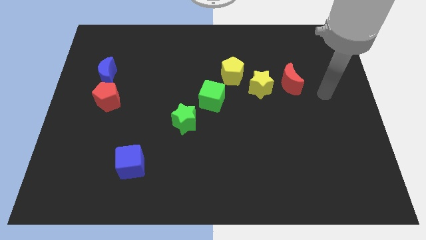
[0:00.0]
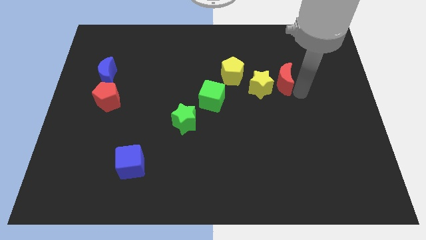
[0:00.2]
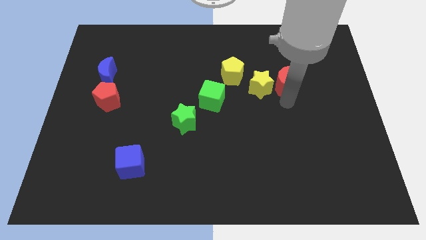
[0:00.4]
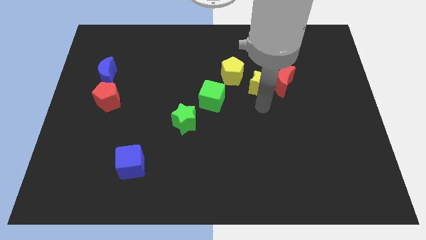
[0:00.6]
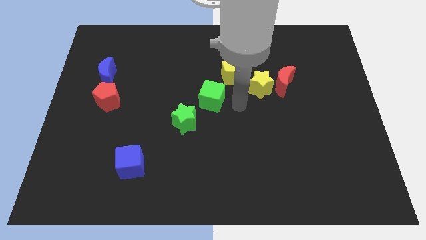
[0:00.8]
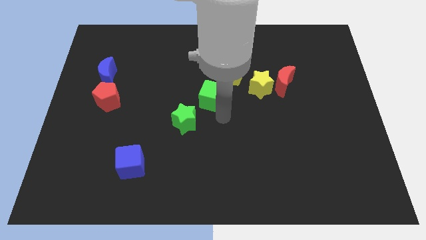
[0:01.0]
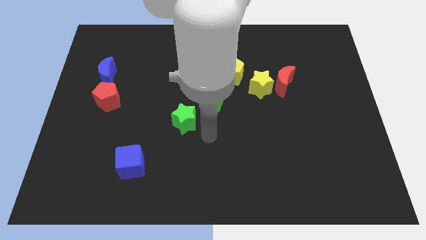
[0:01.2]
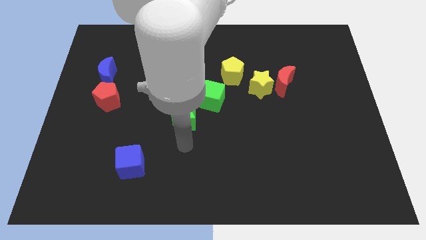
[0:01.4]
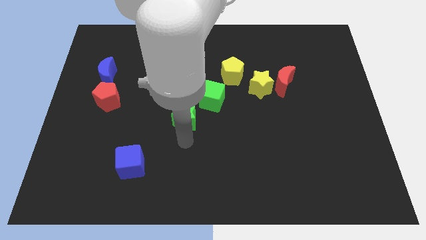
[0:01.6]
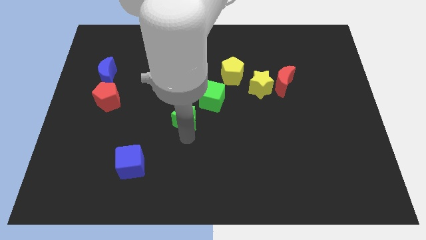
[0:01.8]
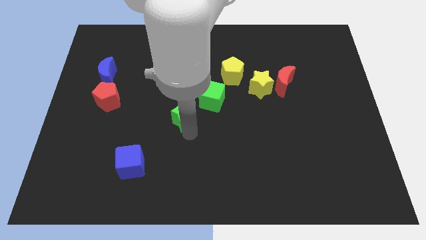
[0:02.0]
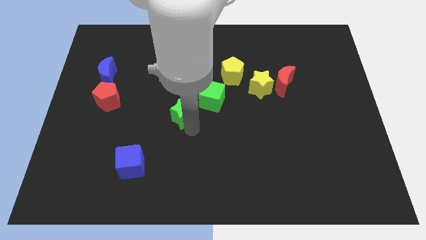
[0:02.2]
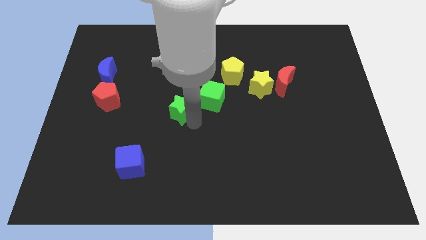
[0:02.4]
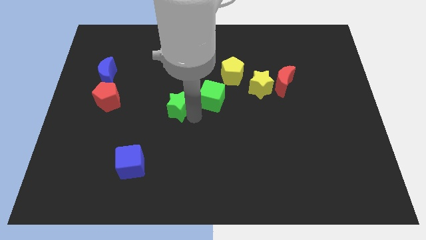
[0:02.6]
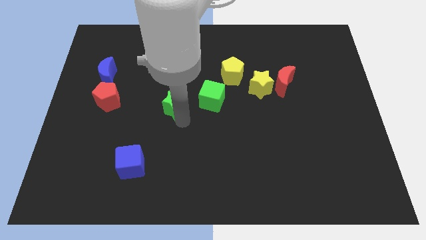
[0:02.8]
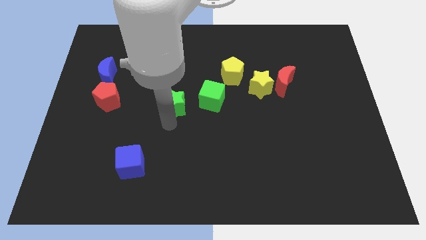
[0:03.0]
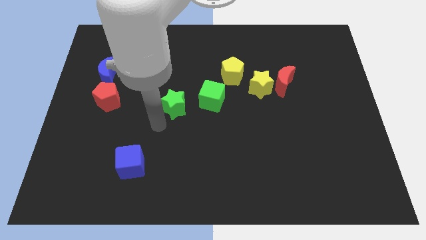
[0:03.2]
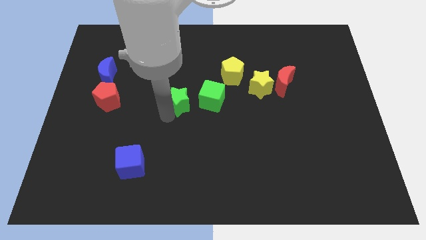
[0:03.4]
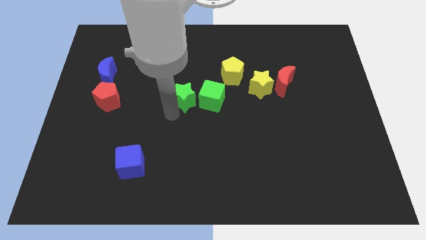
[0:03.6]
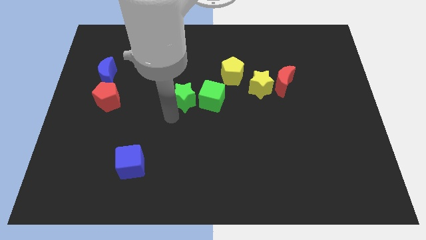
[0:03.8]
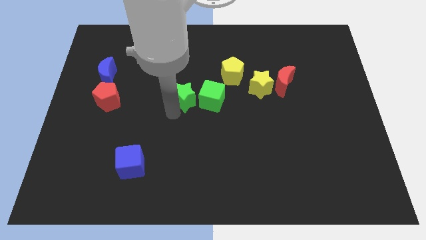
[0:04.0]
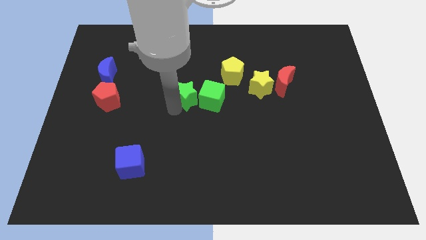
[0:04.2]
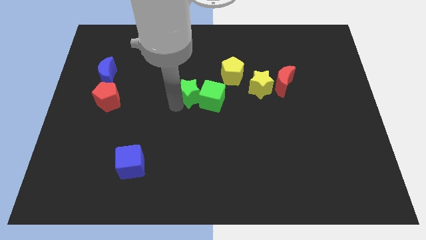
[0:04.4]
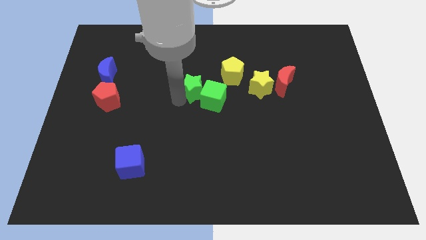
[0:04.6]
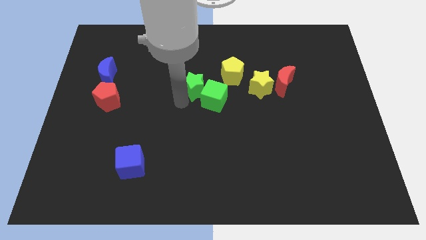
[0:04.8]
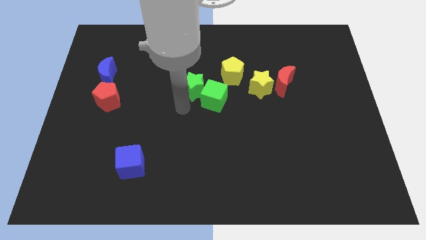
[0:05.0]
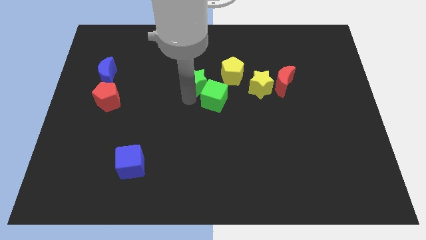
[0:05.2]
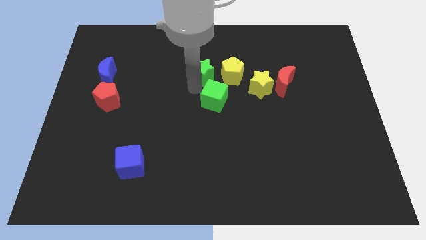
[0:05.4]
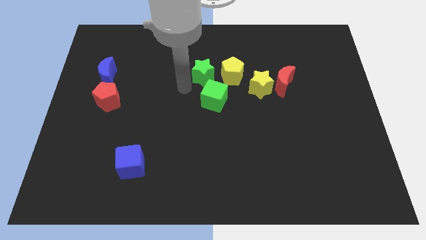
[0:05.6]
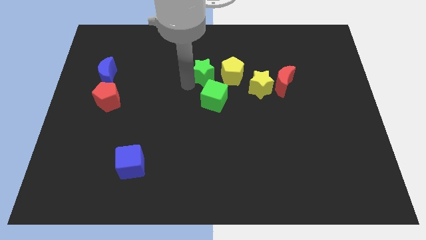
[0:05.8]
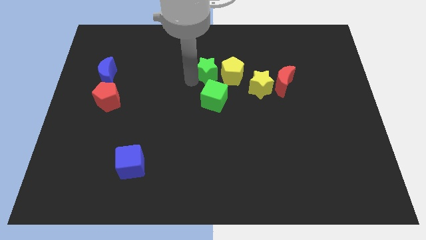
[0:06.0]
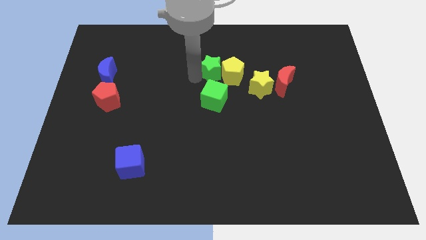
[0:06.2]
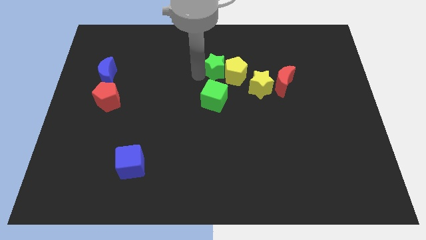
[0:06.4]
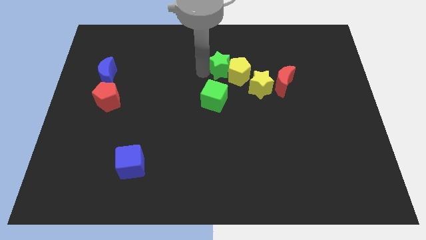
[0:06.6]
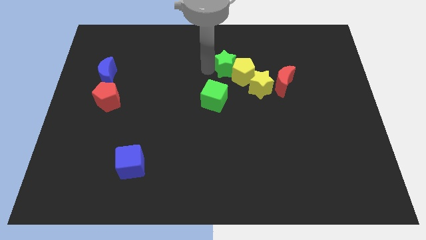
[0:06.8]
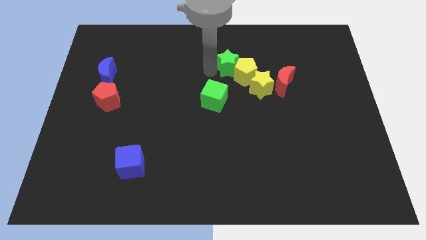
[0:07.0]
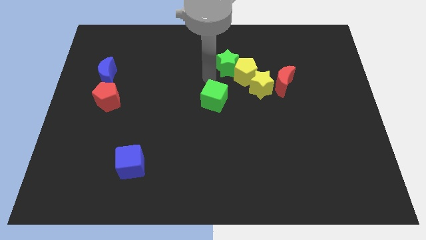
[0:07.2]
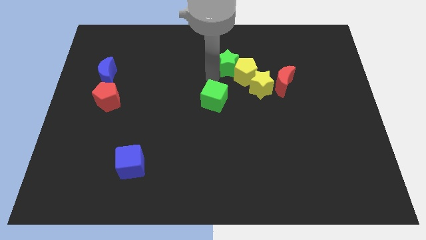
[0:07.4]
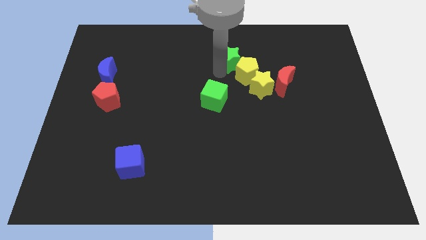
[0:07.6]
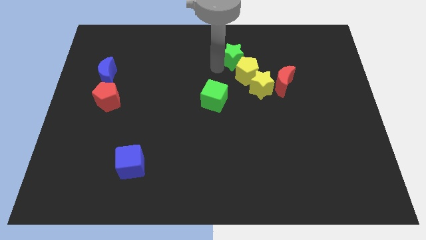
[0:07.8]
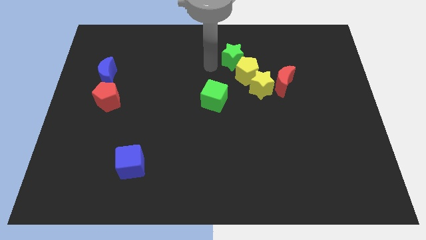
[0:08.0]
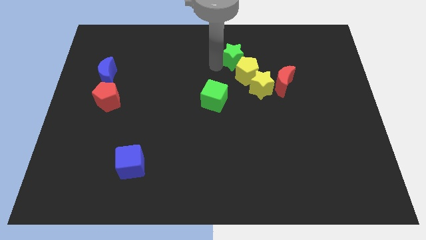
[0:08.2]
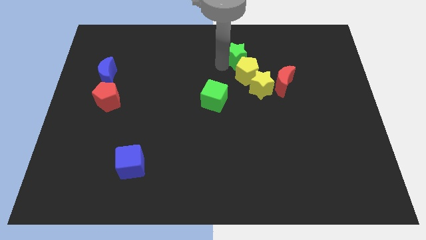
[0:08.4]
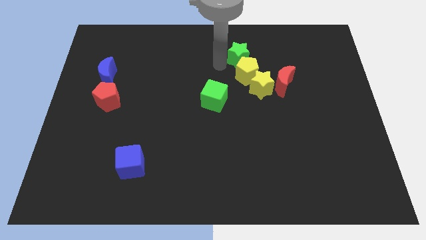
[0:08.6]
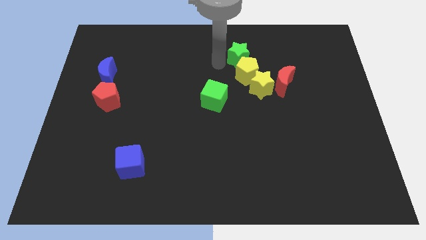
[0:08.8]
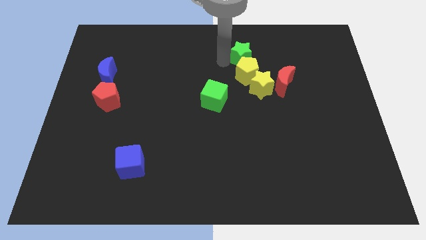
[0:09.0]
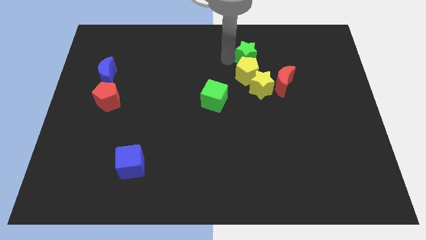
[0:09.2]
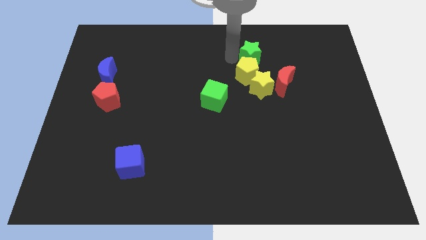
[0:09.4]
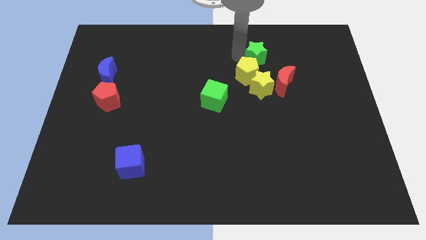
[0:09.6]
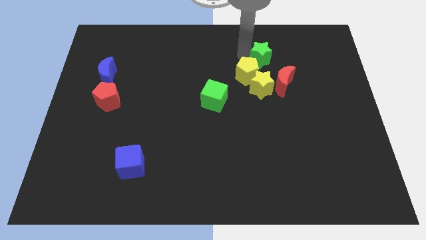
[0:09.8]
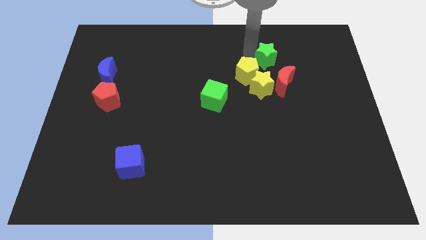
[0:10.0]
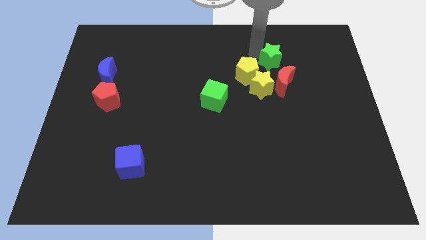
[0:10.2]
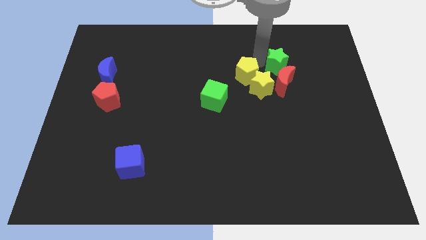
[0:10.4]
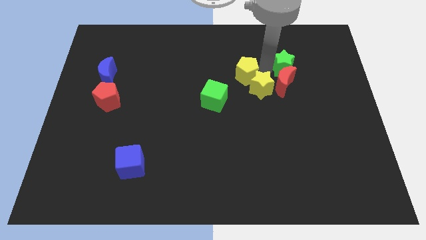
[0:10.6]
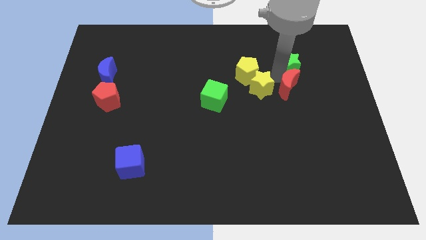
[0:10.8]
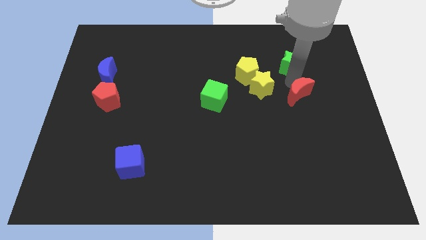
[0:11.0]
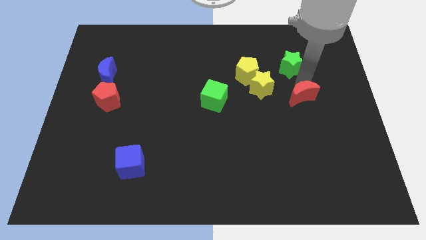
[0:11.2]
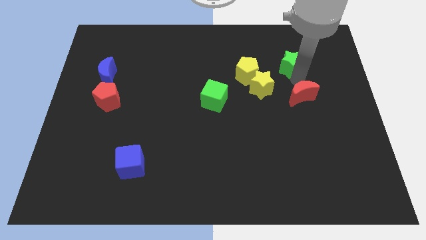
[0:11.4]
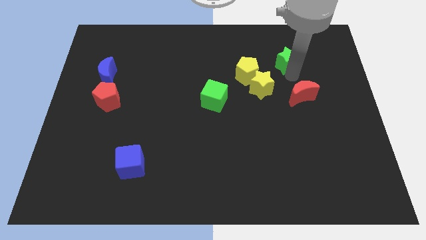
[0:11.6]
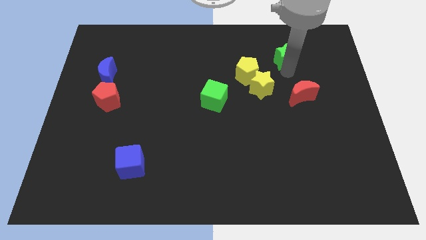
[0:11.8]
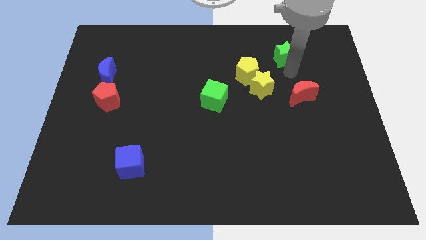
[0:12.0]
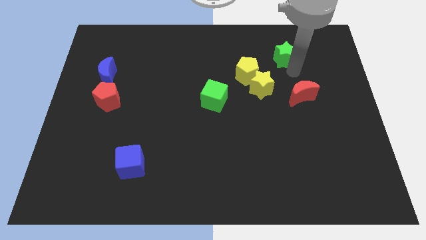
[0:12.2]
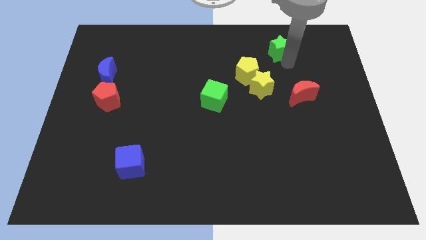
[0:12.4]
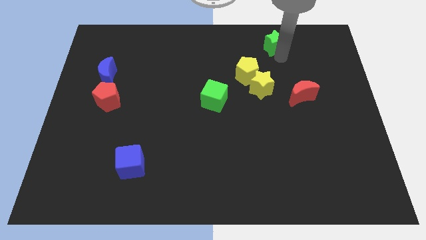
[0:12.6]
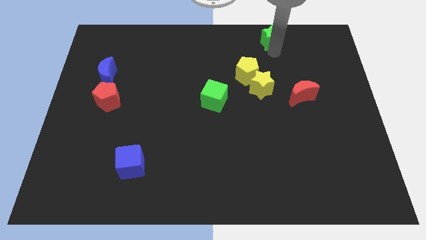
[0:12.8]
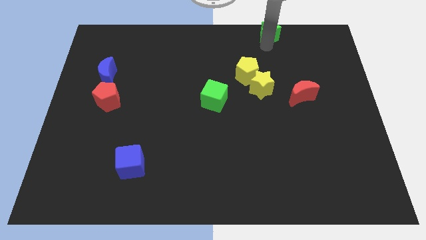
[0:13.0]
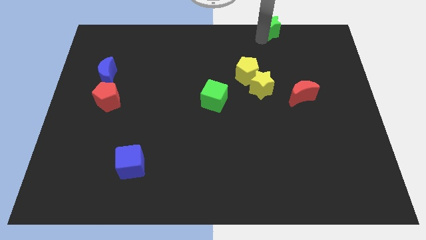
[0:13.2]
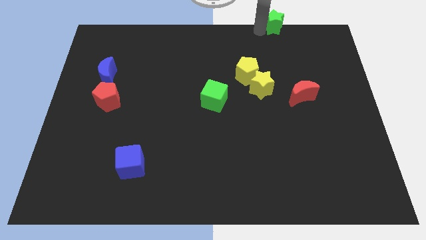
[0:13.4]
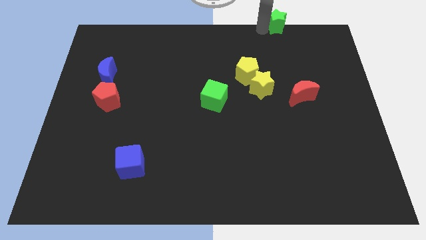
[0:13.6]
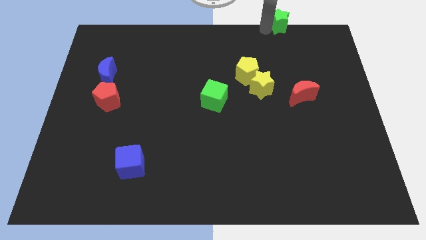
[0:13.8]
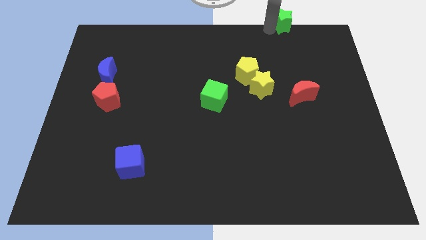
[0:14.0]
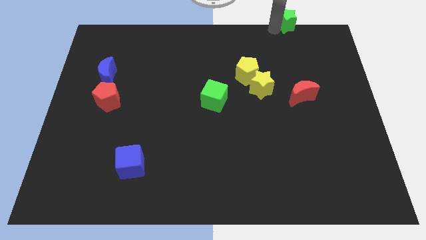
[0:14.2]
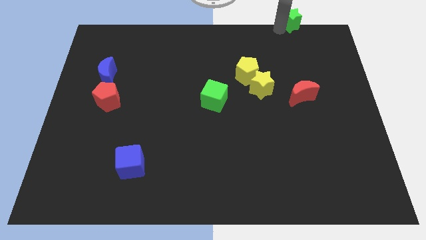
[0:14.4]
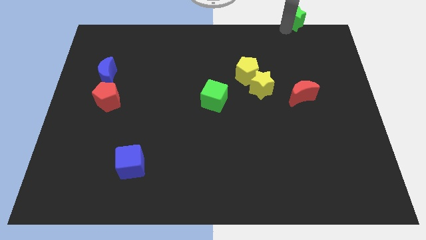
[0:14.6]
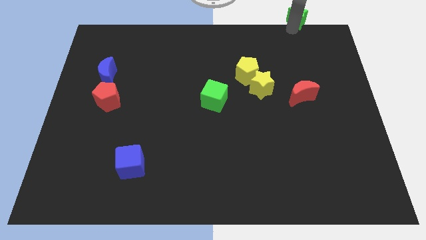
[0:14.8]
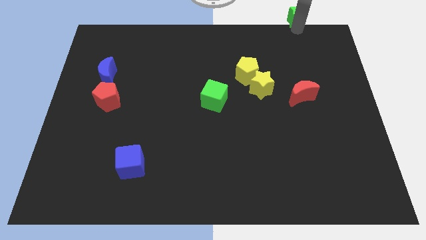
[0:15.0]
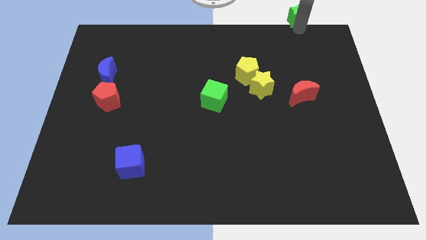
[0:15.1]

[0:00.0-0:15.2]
slide the green star to the upper right corner

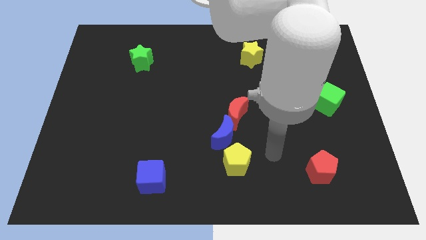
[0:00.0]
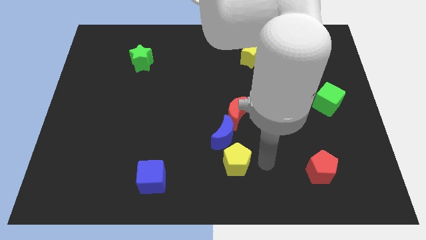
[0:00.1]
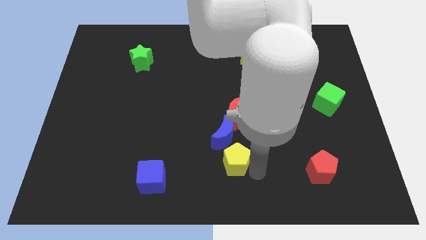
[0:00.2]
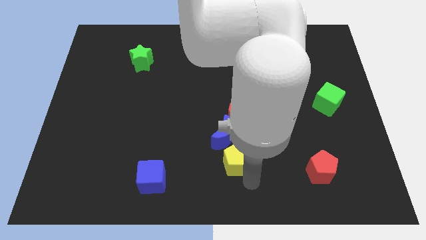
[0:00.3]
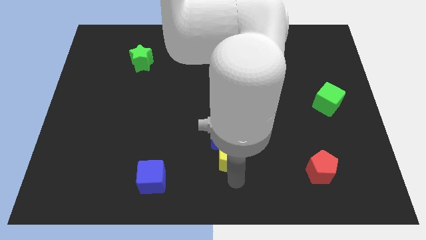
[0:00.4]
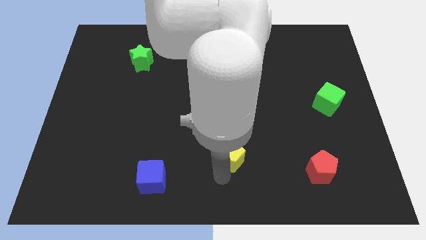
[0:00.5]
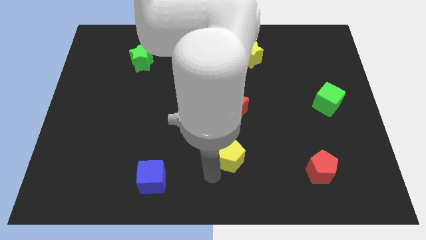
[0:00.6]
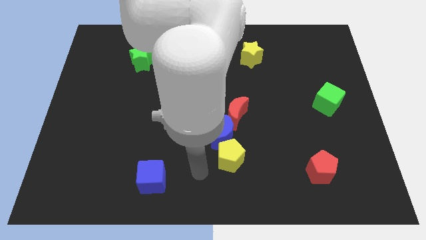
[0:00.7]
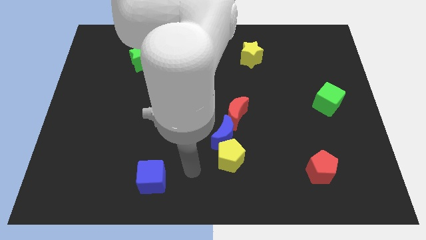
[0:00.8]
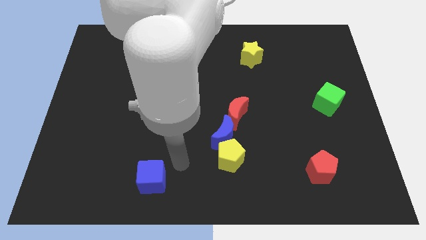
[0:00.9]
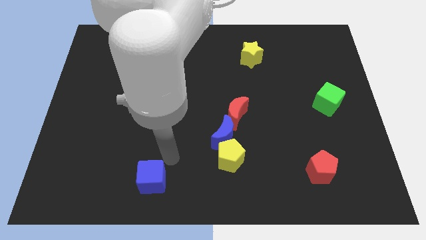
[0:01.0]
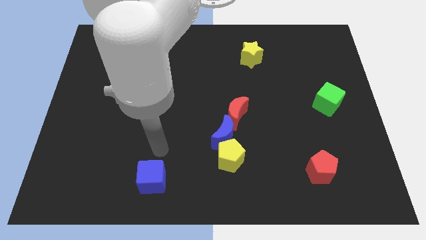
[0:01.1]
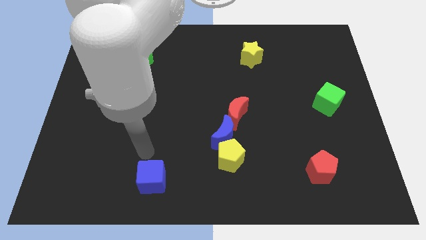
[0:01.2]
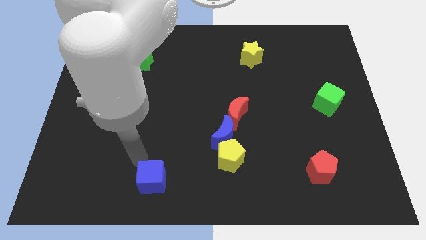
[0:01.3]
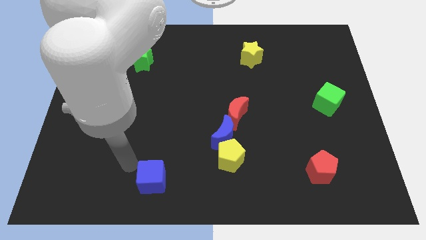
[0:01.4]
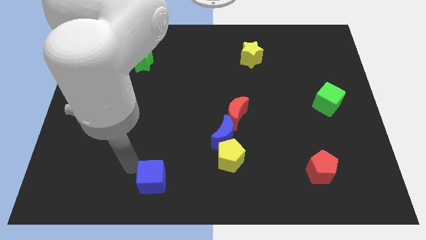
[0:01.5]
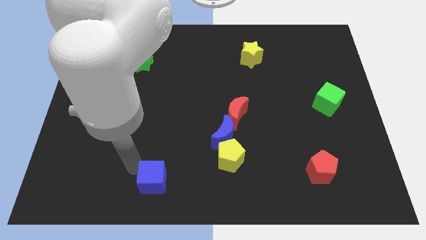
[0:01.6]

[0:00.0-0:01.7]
slide the blue cube to the bottom side
